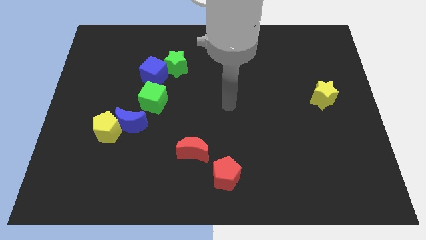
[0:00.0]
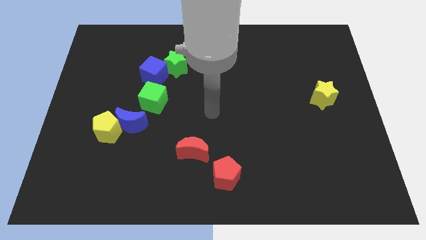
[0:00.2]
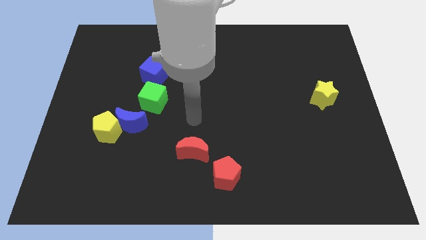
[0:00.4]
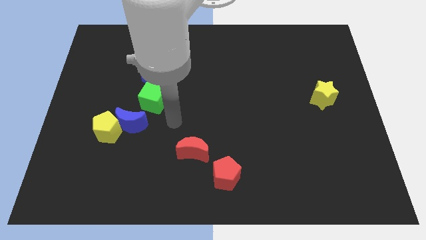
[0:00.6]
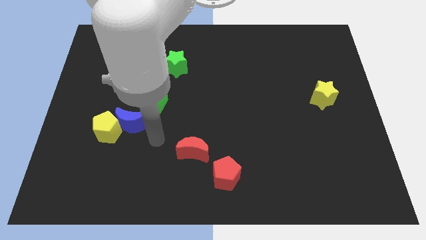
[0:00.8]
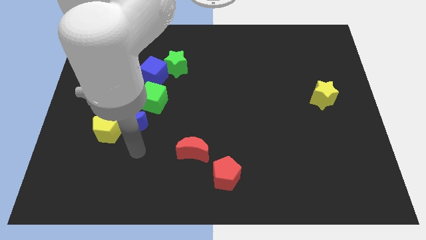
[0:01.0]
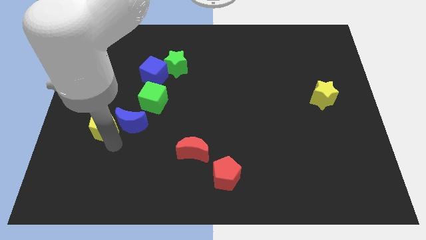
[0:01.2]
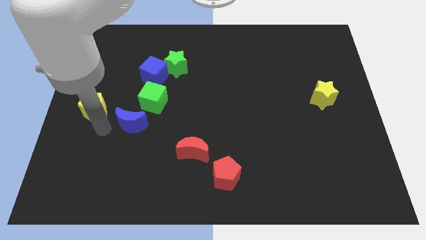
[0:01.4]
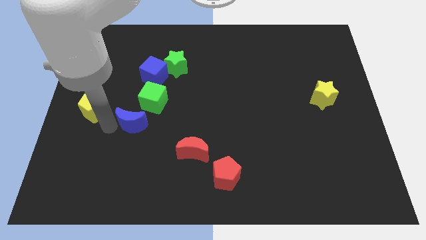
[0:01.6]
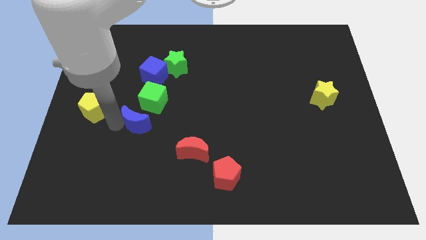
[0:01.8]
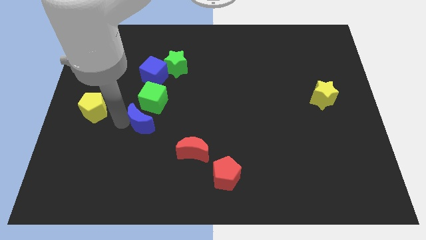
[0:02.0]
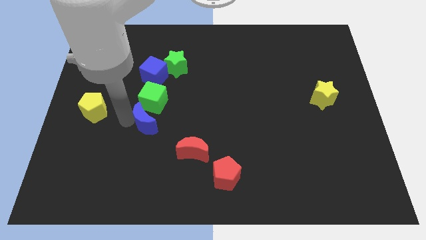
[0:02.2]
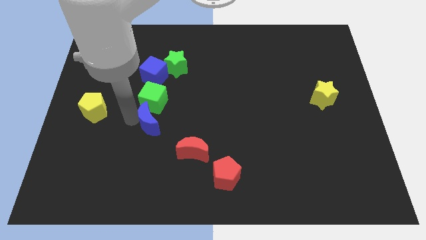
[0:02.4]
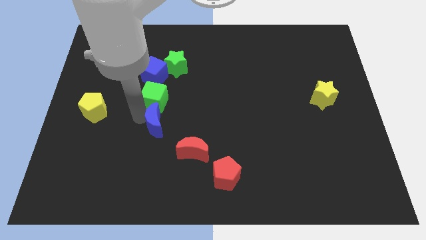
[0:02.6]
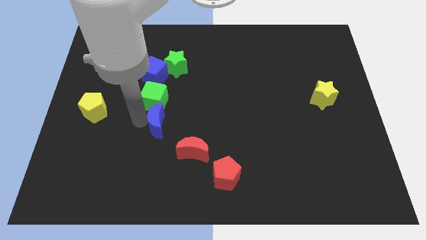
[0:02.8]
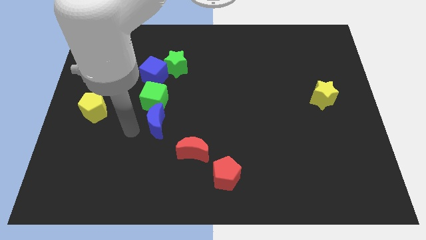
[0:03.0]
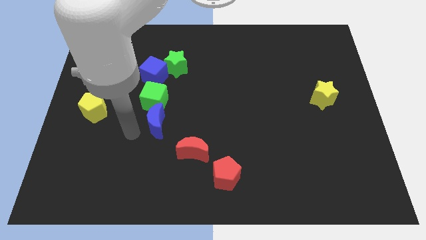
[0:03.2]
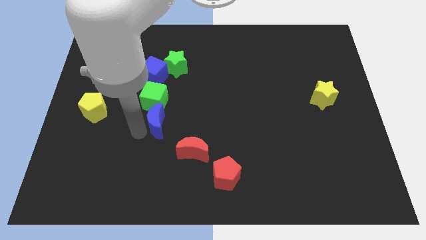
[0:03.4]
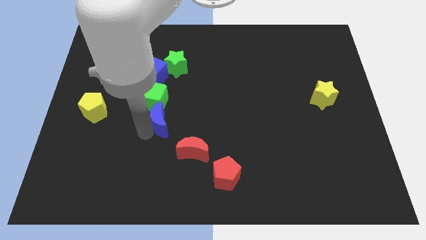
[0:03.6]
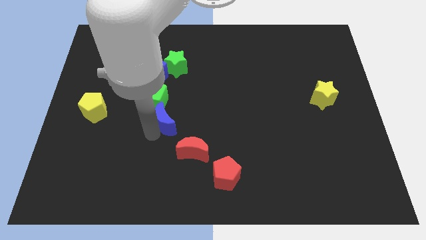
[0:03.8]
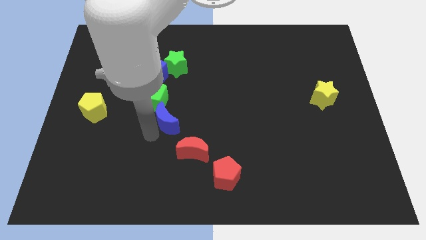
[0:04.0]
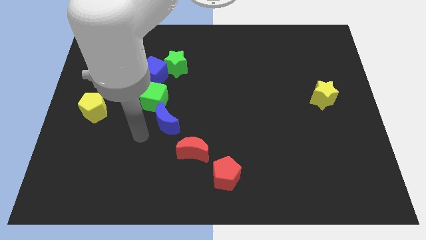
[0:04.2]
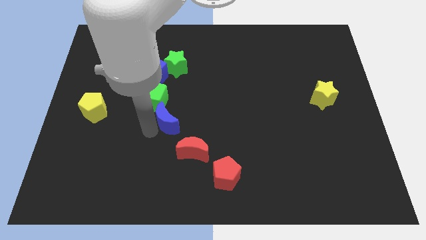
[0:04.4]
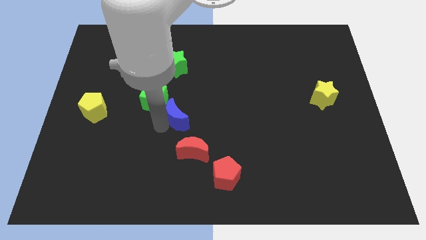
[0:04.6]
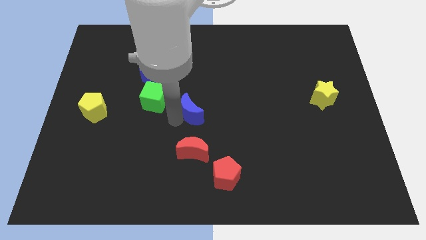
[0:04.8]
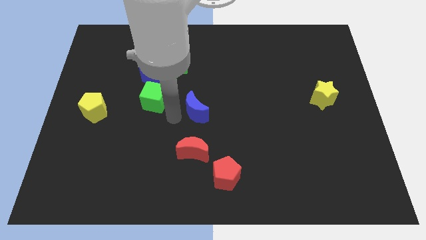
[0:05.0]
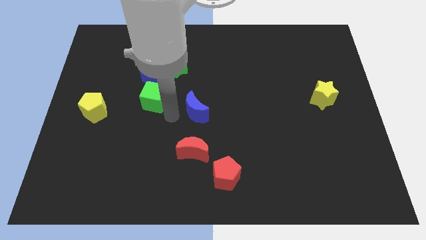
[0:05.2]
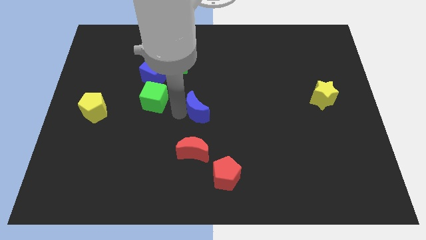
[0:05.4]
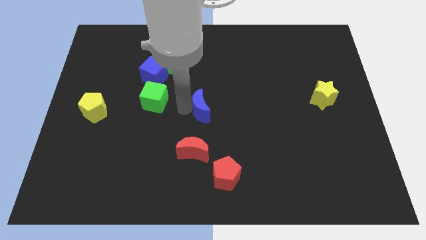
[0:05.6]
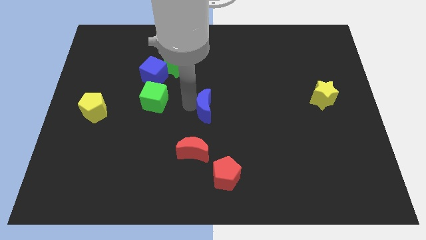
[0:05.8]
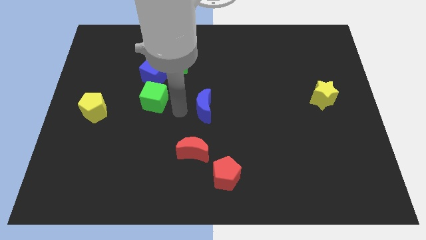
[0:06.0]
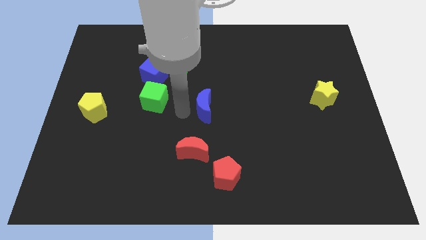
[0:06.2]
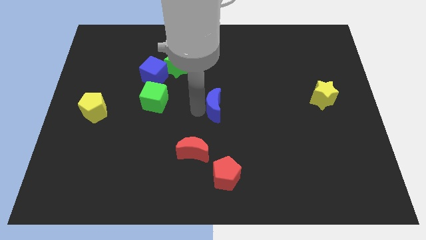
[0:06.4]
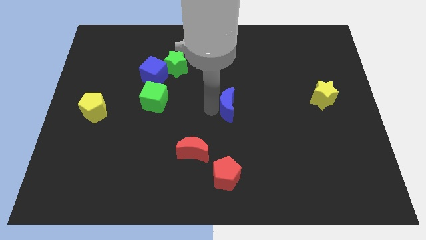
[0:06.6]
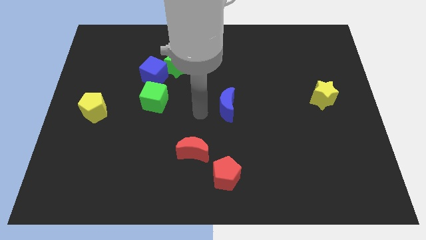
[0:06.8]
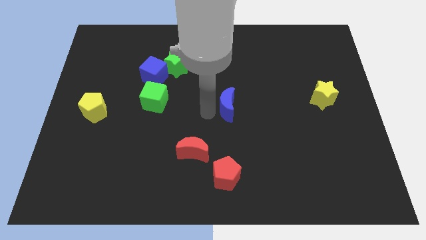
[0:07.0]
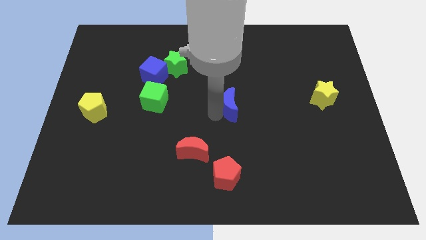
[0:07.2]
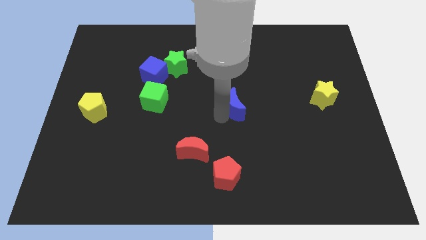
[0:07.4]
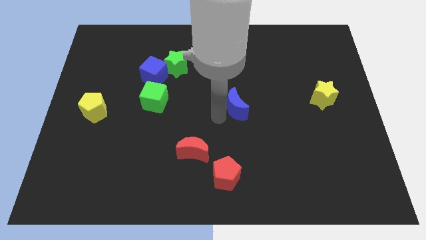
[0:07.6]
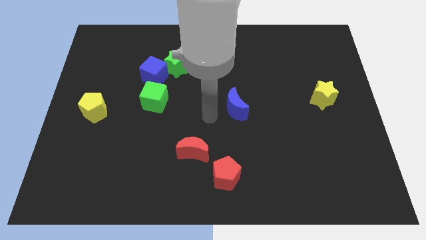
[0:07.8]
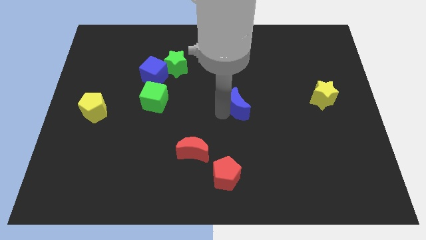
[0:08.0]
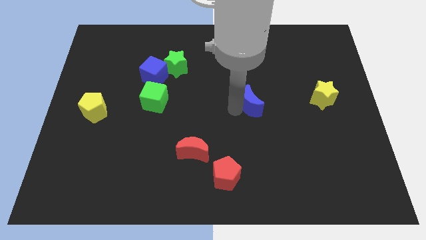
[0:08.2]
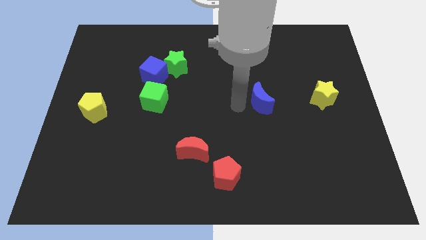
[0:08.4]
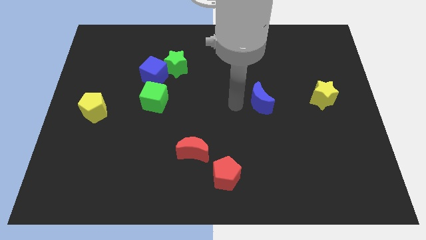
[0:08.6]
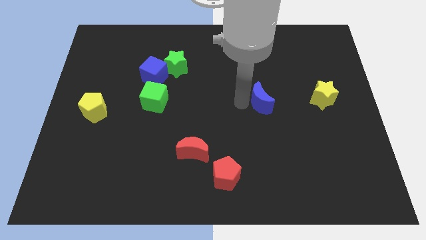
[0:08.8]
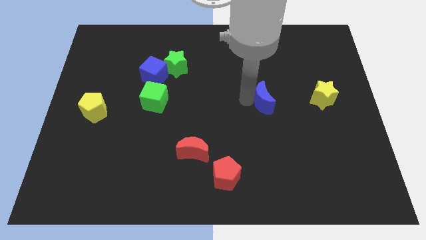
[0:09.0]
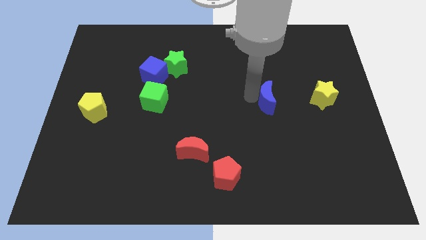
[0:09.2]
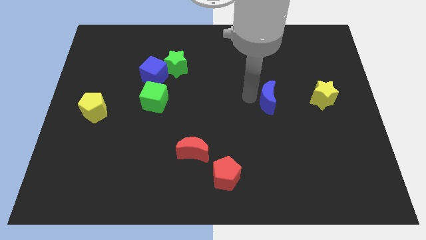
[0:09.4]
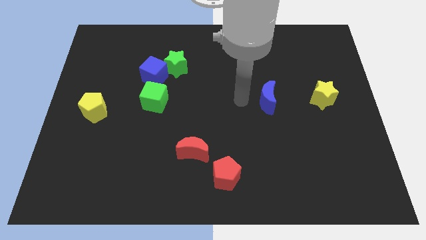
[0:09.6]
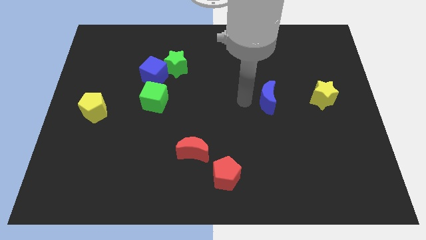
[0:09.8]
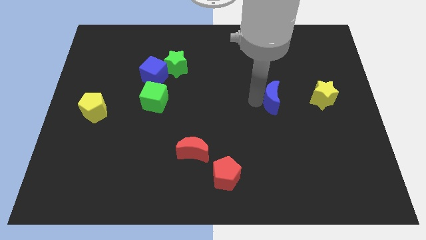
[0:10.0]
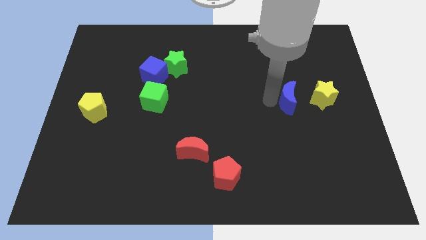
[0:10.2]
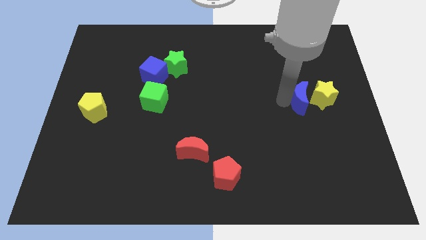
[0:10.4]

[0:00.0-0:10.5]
move the blue moon to the yellow star
